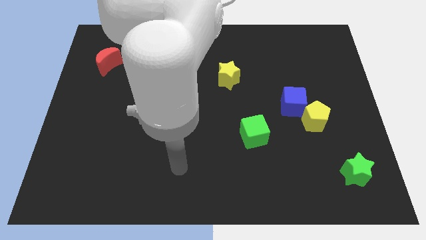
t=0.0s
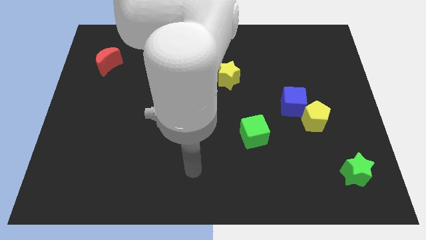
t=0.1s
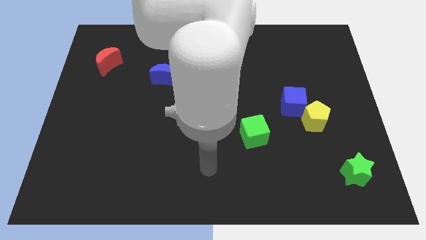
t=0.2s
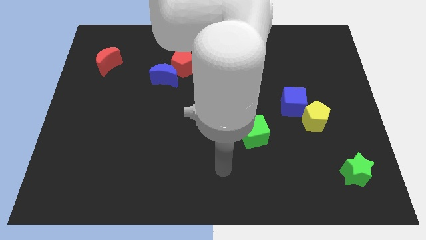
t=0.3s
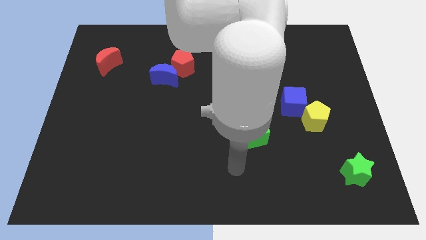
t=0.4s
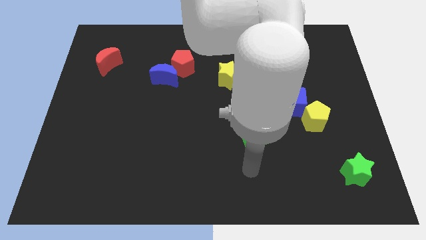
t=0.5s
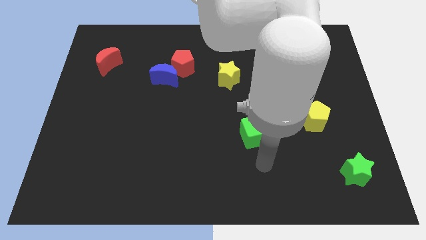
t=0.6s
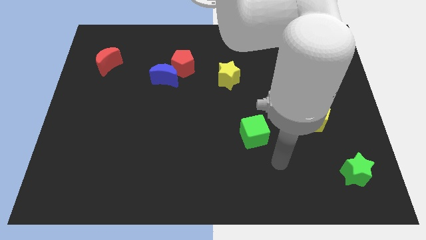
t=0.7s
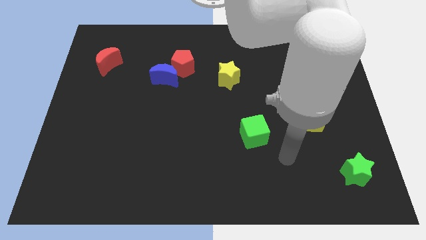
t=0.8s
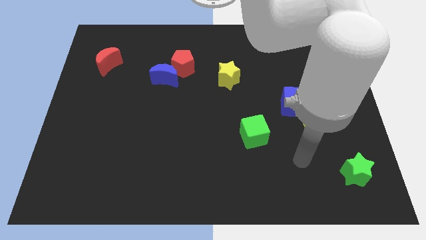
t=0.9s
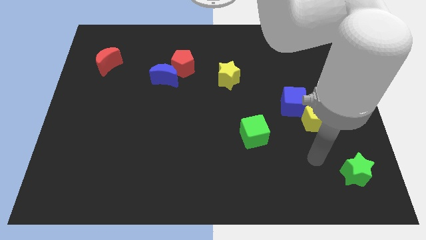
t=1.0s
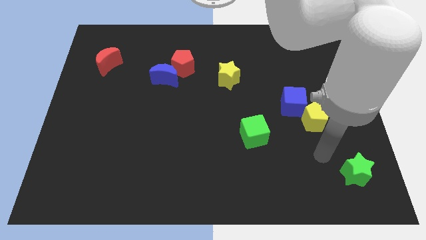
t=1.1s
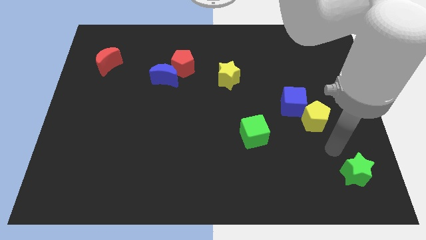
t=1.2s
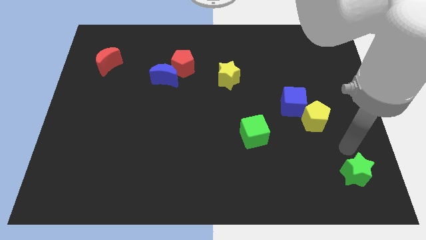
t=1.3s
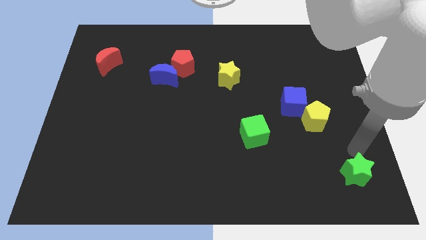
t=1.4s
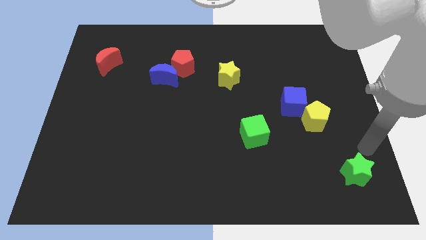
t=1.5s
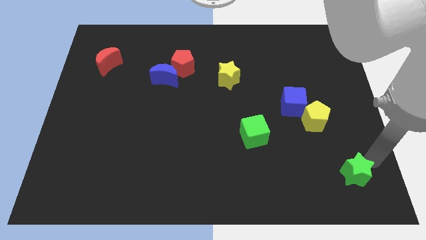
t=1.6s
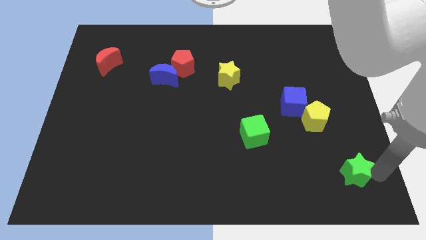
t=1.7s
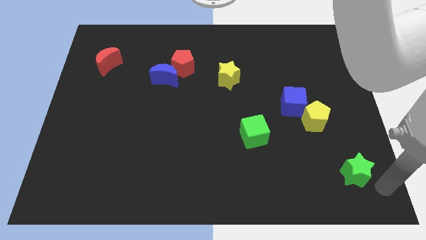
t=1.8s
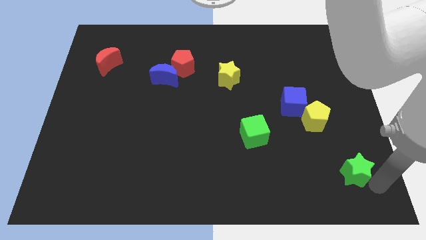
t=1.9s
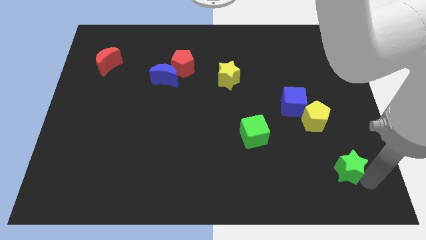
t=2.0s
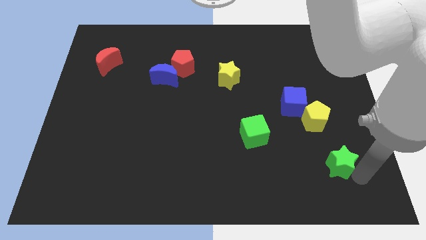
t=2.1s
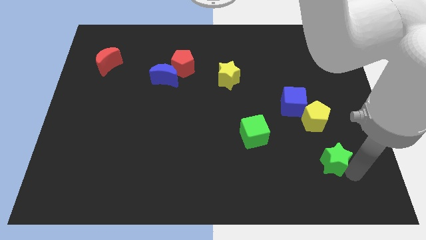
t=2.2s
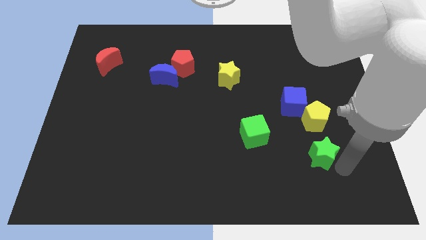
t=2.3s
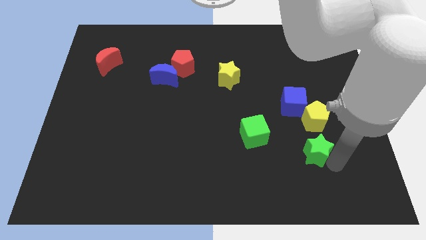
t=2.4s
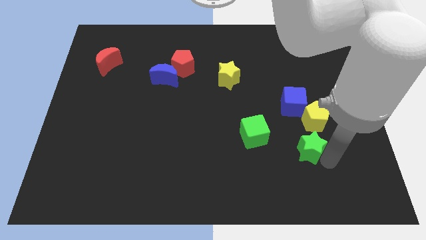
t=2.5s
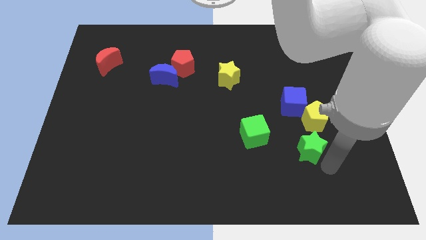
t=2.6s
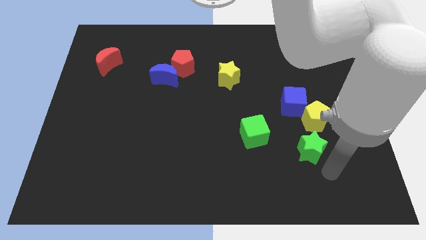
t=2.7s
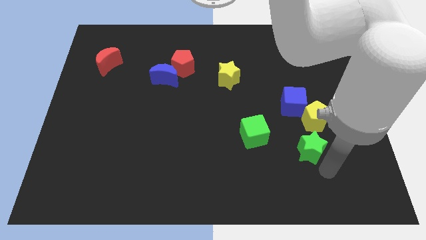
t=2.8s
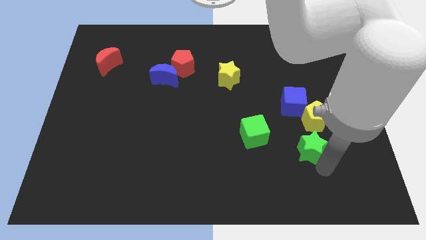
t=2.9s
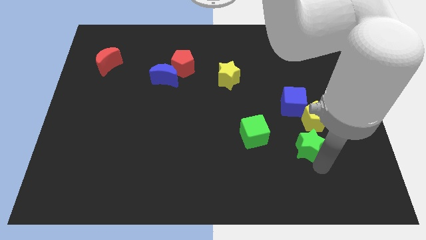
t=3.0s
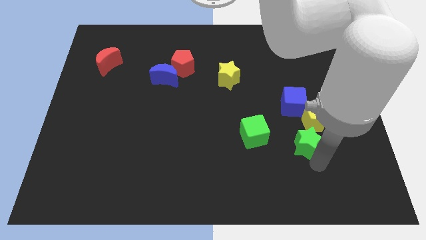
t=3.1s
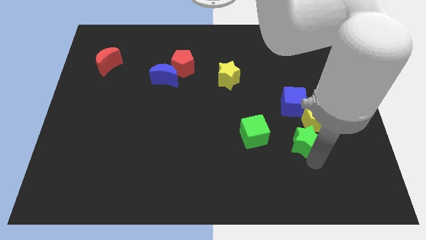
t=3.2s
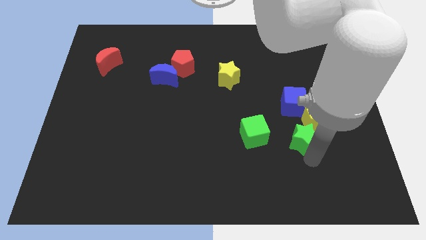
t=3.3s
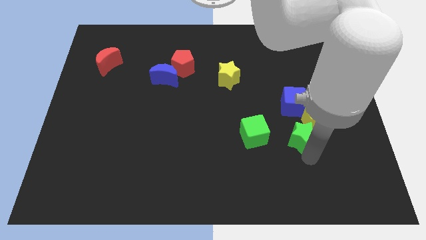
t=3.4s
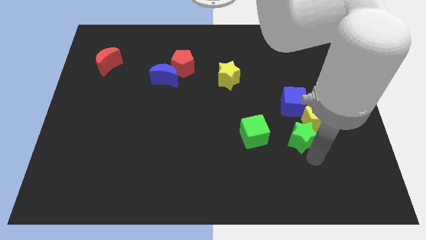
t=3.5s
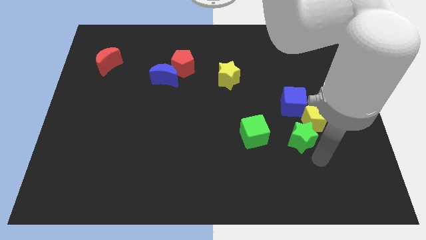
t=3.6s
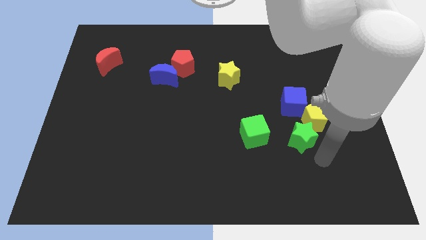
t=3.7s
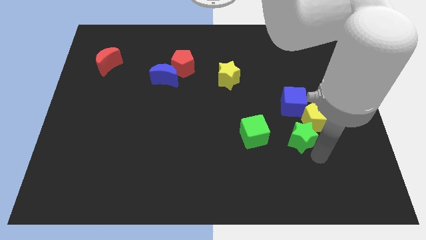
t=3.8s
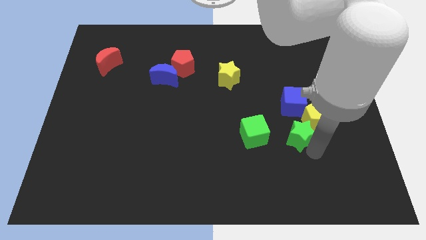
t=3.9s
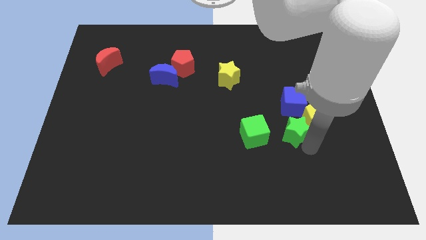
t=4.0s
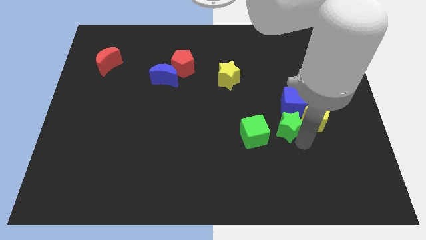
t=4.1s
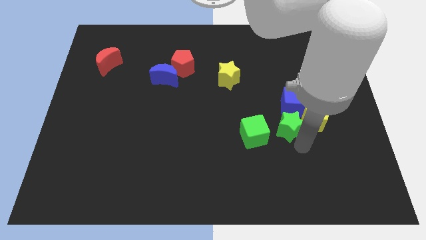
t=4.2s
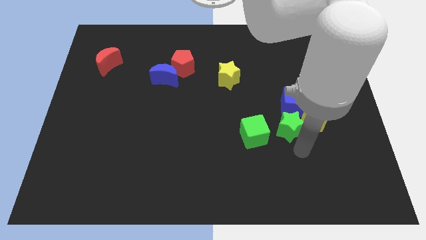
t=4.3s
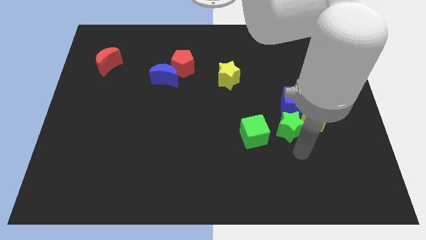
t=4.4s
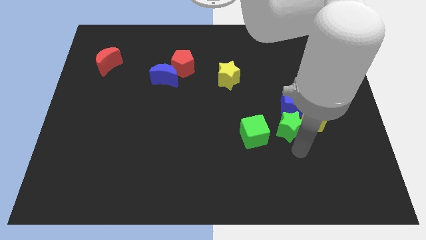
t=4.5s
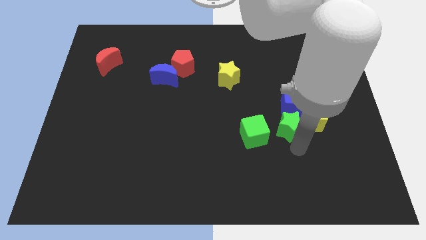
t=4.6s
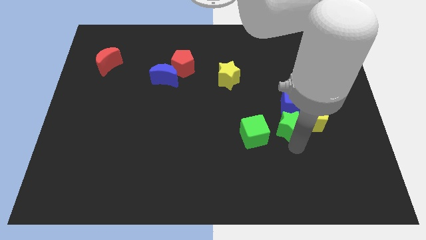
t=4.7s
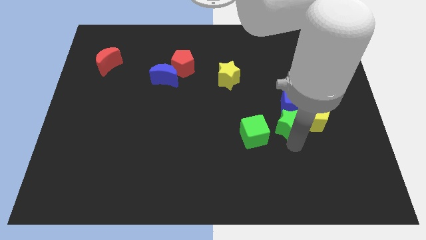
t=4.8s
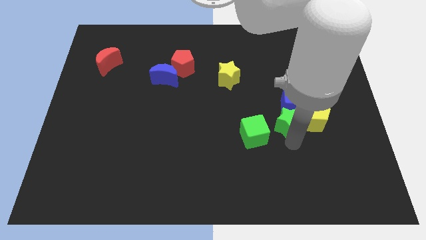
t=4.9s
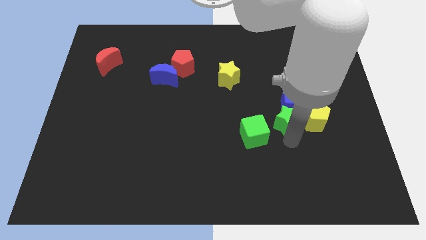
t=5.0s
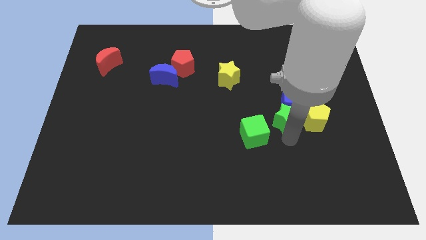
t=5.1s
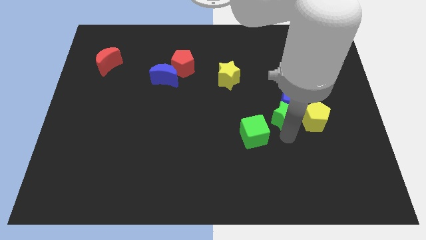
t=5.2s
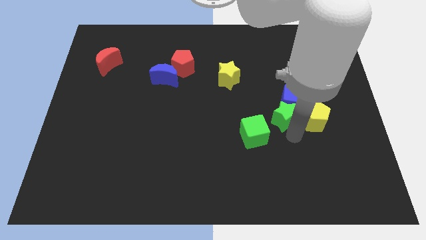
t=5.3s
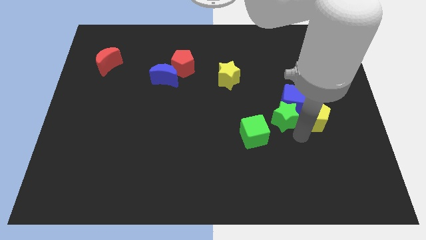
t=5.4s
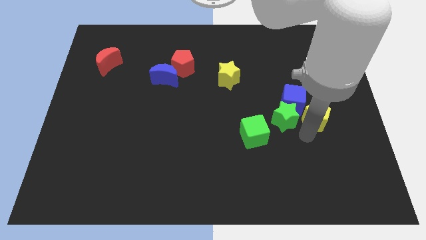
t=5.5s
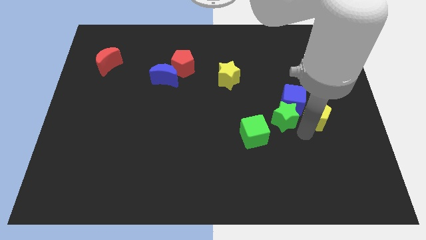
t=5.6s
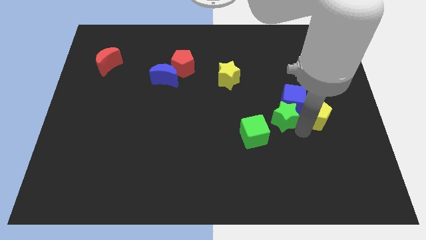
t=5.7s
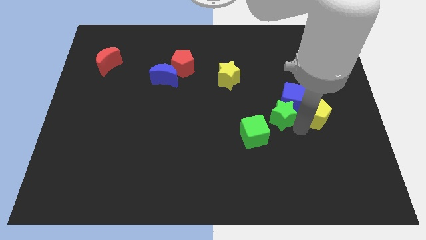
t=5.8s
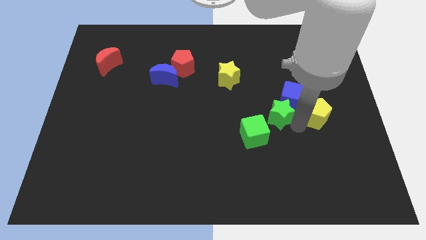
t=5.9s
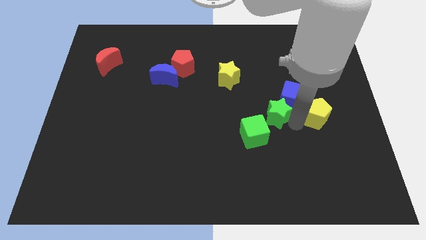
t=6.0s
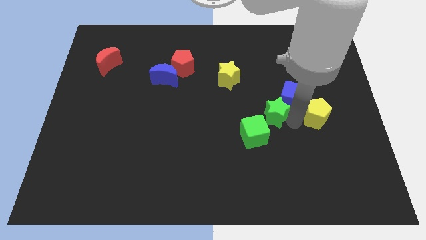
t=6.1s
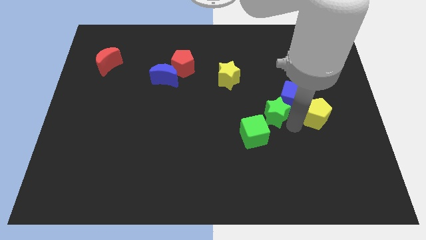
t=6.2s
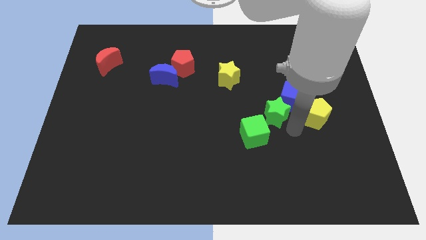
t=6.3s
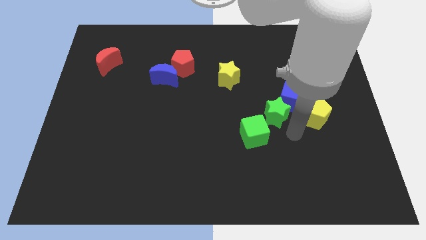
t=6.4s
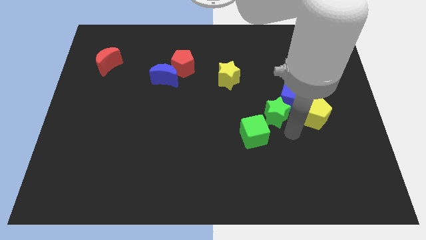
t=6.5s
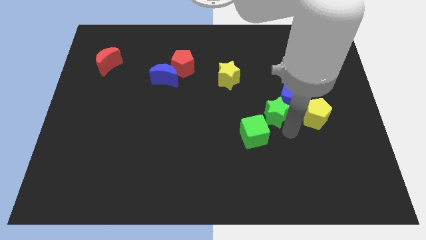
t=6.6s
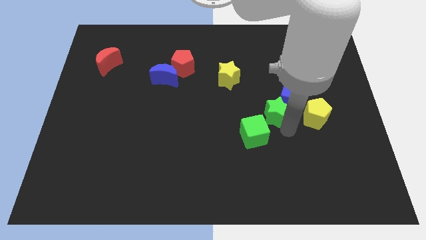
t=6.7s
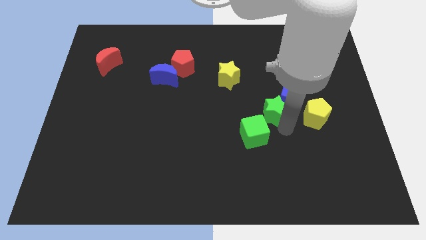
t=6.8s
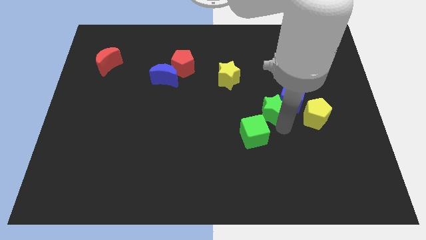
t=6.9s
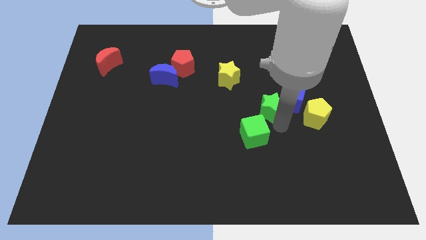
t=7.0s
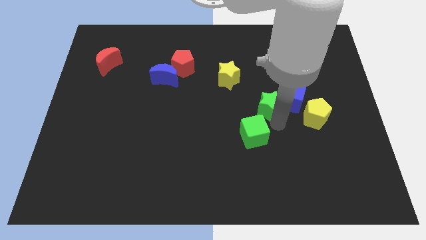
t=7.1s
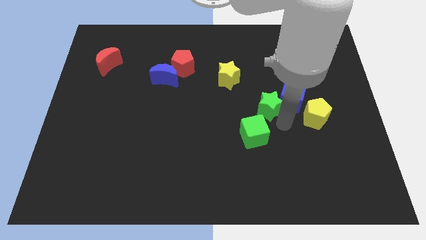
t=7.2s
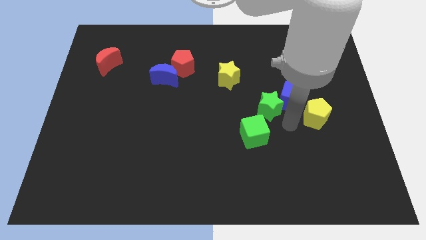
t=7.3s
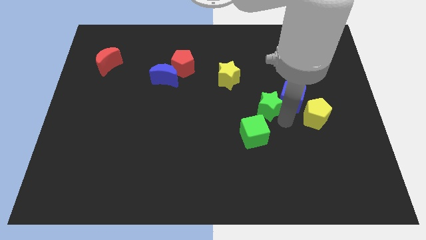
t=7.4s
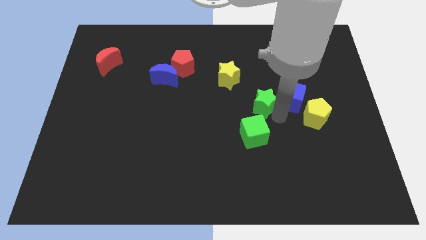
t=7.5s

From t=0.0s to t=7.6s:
push the green star to the bottom right side of the yellow star
